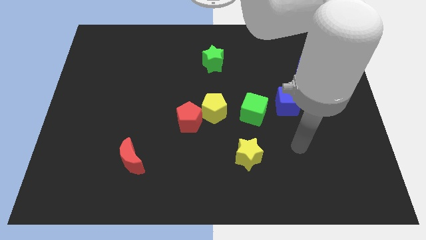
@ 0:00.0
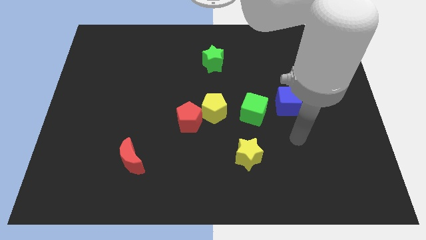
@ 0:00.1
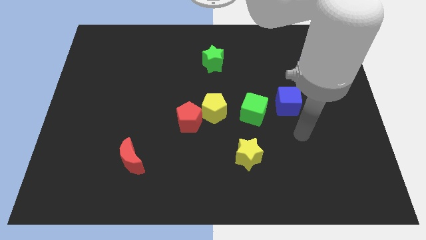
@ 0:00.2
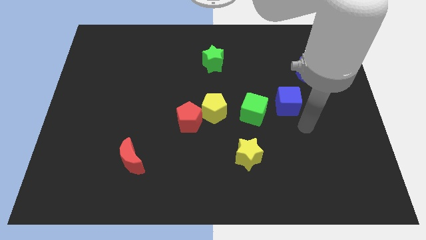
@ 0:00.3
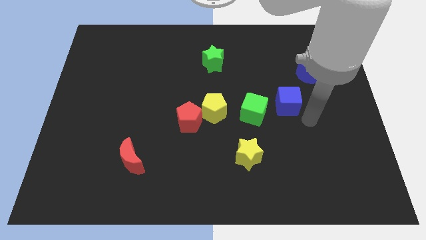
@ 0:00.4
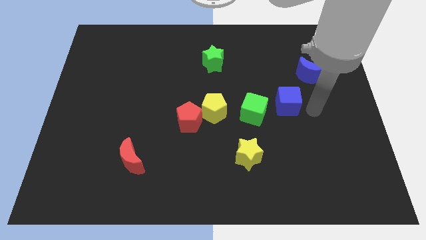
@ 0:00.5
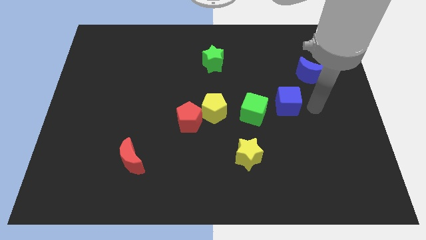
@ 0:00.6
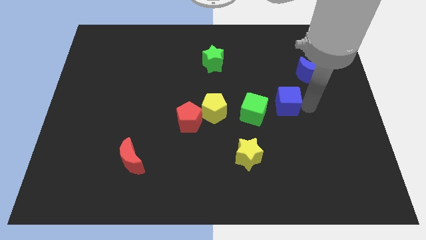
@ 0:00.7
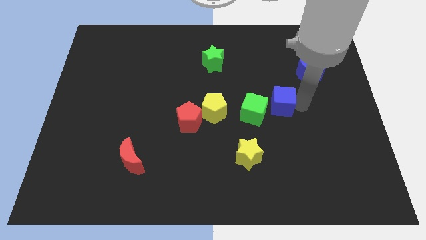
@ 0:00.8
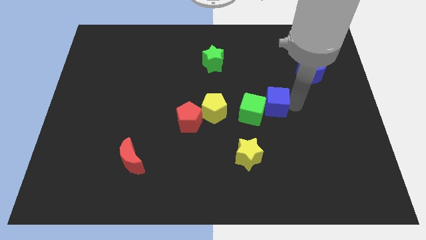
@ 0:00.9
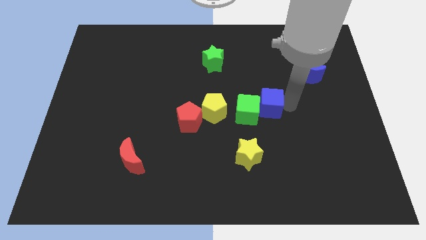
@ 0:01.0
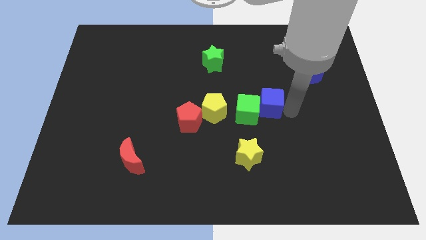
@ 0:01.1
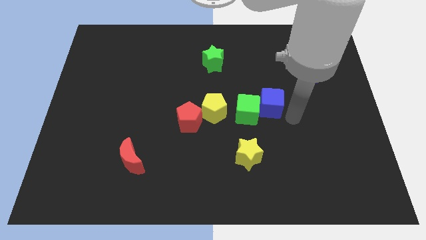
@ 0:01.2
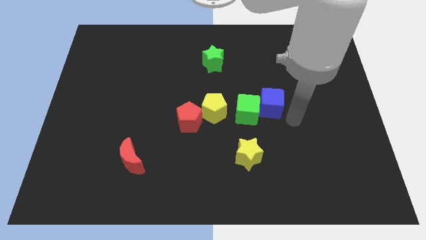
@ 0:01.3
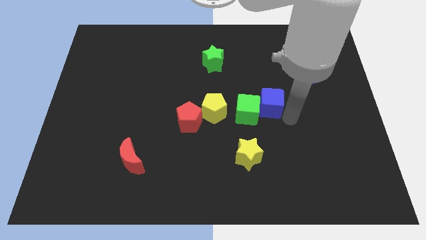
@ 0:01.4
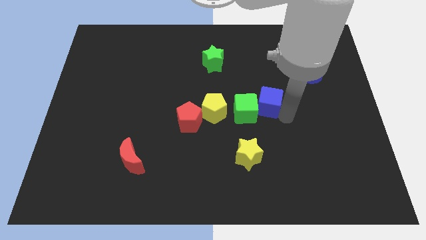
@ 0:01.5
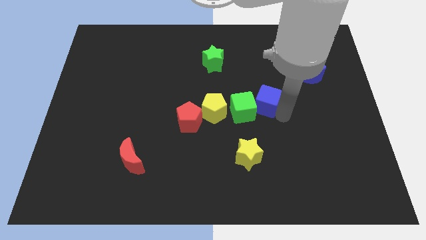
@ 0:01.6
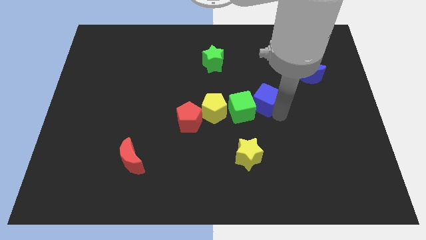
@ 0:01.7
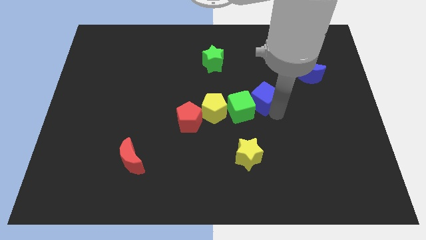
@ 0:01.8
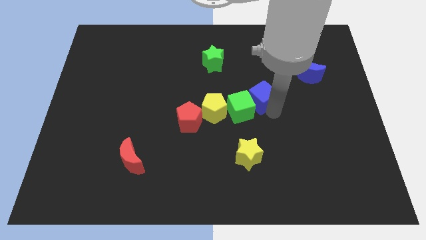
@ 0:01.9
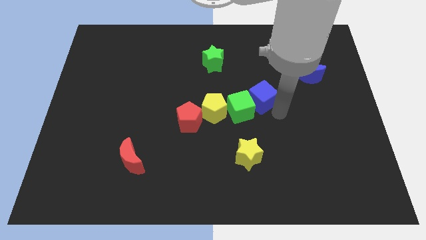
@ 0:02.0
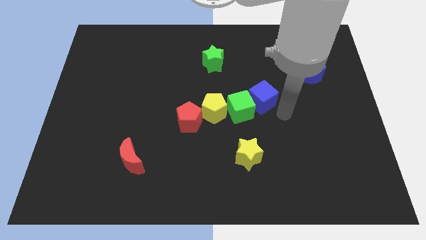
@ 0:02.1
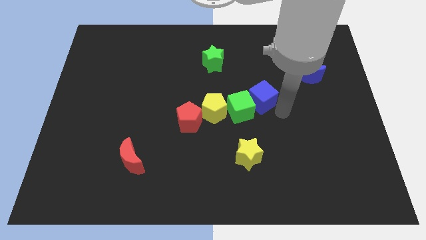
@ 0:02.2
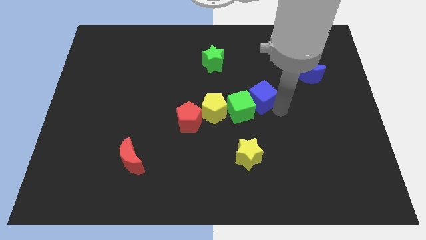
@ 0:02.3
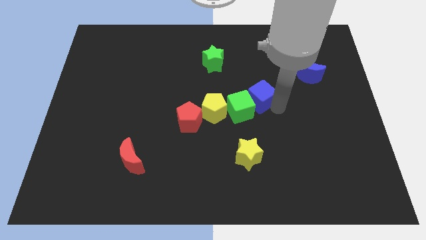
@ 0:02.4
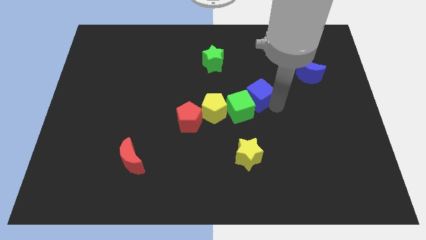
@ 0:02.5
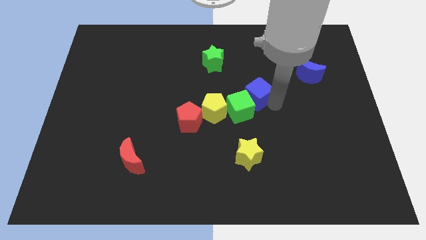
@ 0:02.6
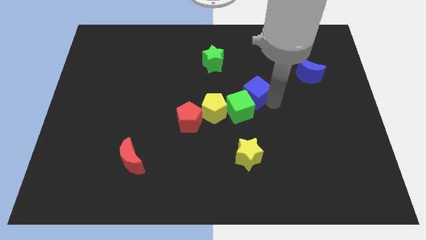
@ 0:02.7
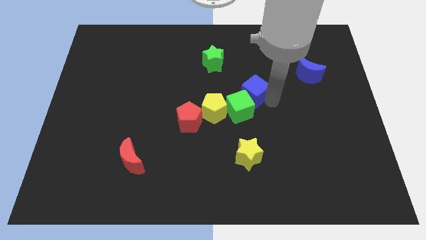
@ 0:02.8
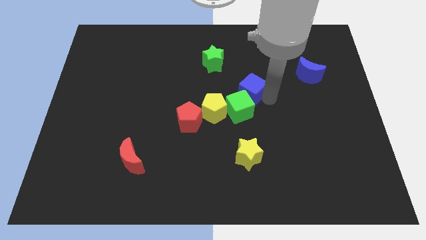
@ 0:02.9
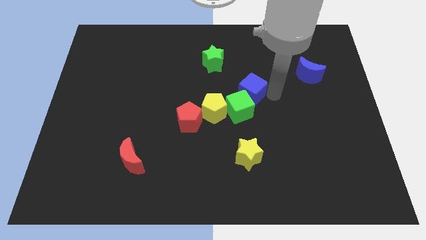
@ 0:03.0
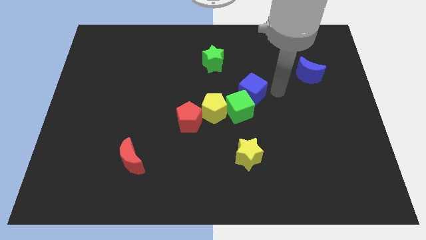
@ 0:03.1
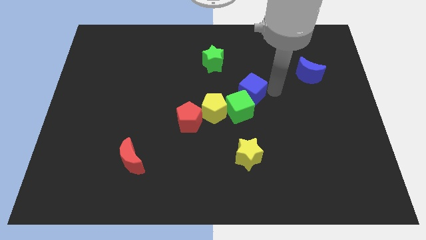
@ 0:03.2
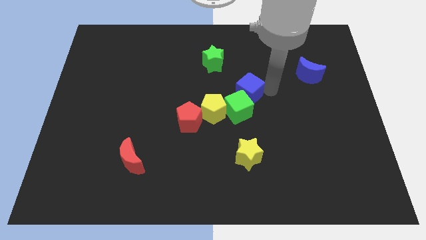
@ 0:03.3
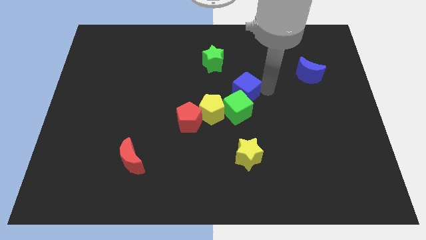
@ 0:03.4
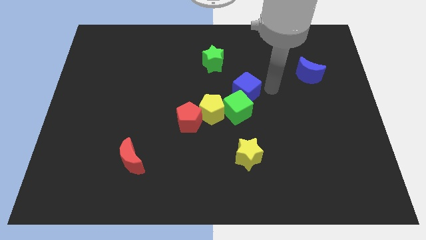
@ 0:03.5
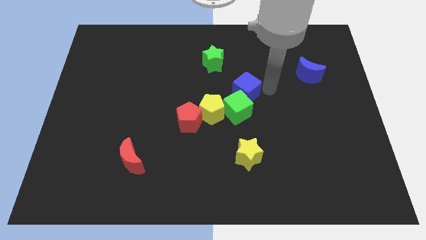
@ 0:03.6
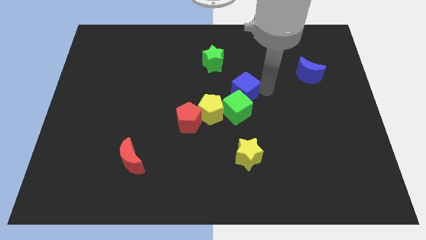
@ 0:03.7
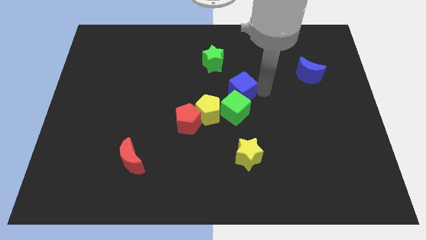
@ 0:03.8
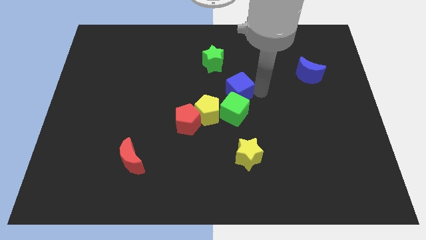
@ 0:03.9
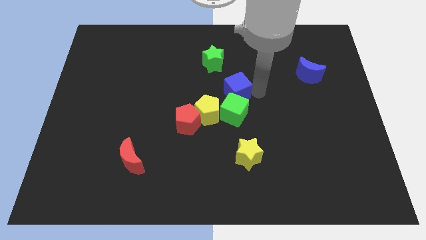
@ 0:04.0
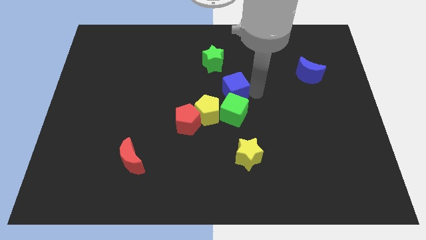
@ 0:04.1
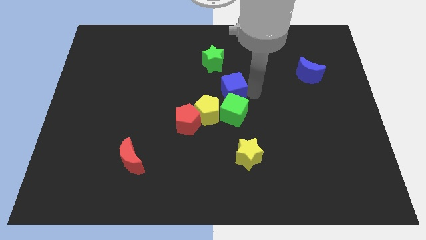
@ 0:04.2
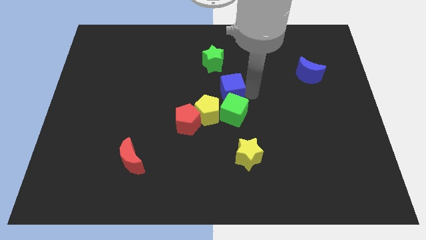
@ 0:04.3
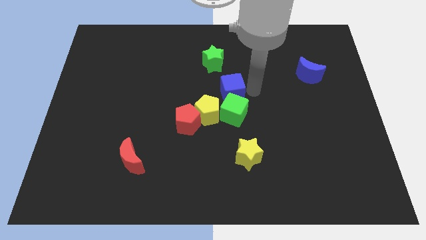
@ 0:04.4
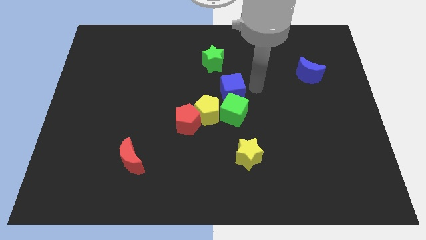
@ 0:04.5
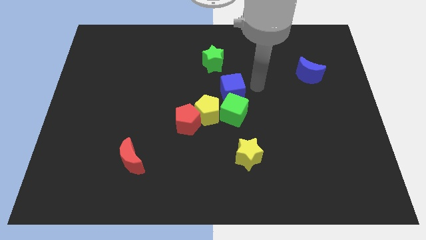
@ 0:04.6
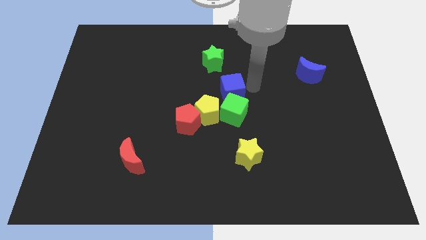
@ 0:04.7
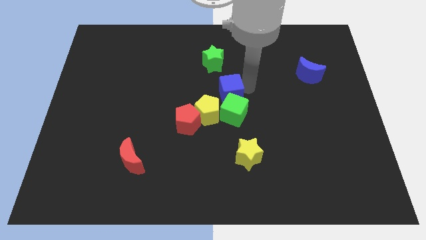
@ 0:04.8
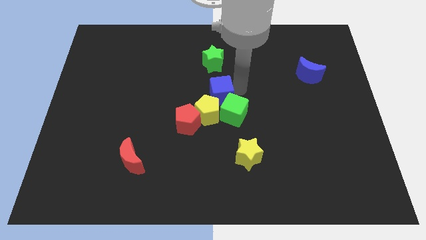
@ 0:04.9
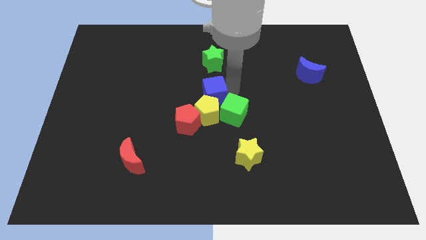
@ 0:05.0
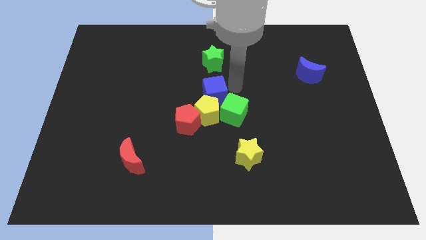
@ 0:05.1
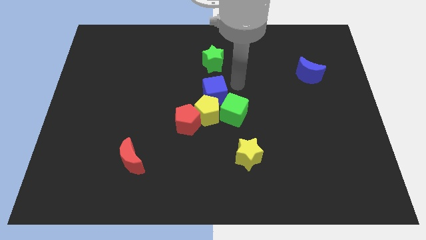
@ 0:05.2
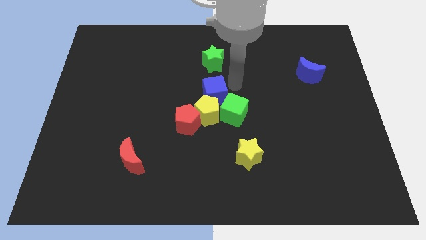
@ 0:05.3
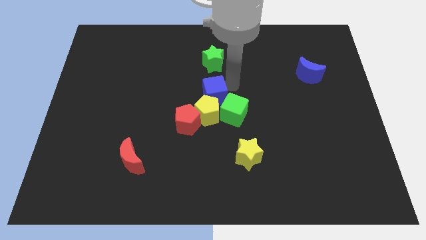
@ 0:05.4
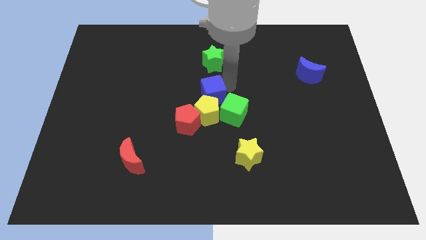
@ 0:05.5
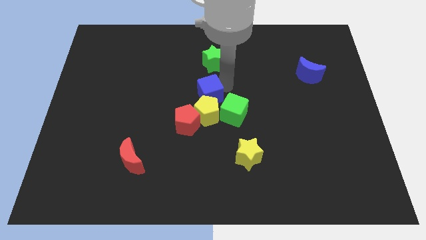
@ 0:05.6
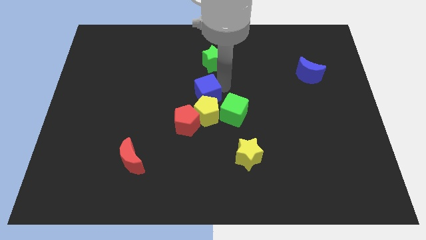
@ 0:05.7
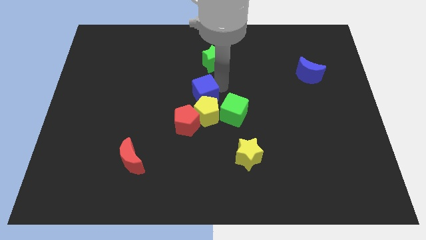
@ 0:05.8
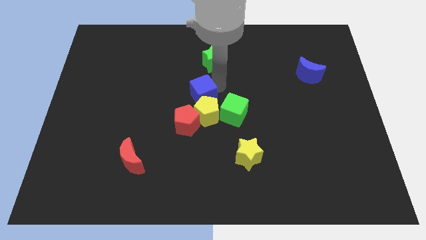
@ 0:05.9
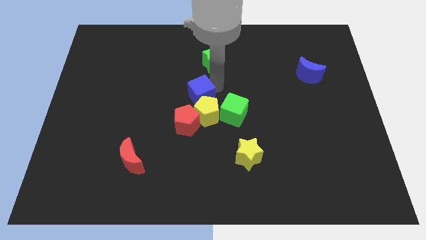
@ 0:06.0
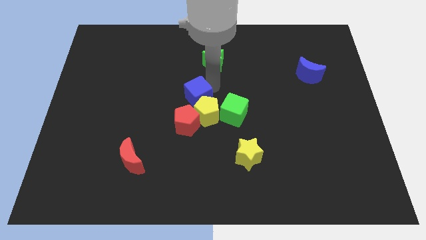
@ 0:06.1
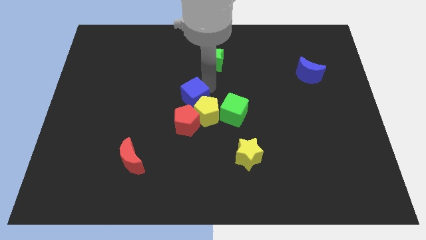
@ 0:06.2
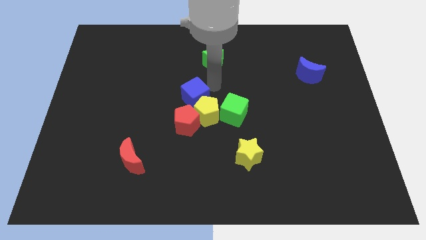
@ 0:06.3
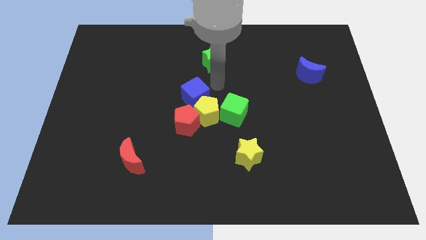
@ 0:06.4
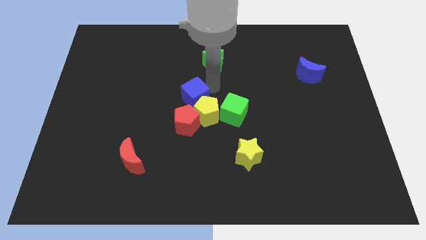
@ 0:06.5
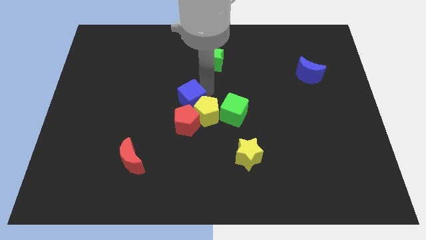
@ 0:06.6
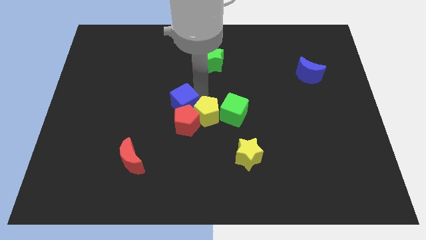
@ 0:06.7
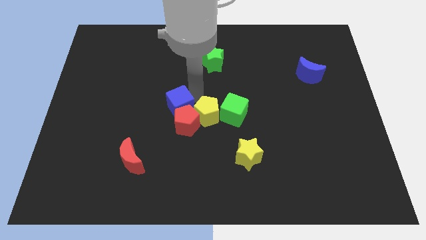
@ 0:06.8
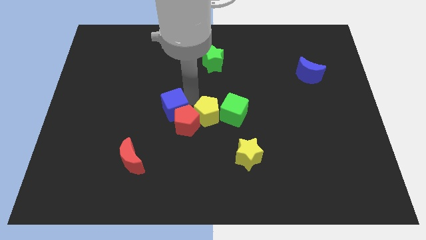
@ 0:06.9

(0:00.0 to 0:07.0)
push the blue cube to the left of the red pentagon
